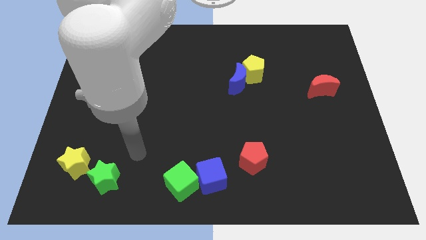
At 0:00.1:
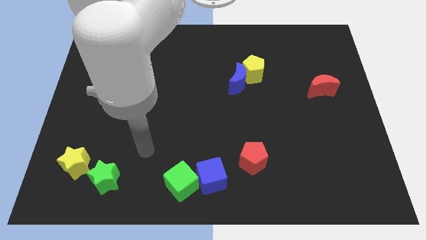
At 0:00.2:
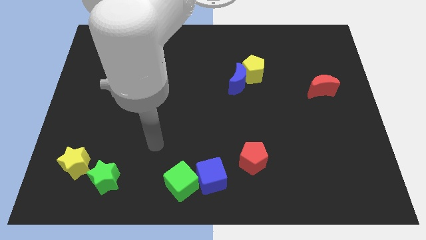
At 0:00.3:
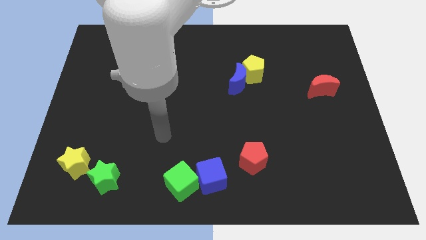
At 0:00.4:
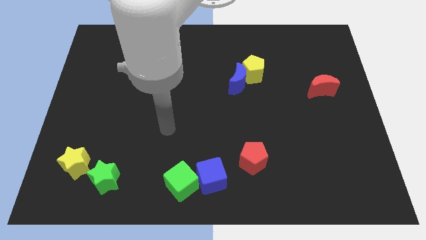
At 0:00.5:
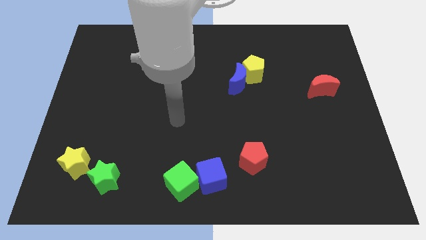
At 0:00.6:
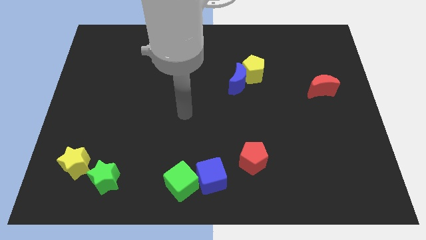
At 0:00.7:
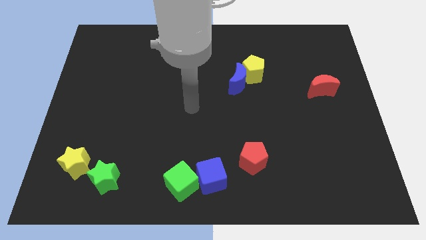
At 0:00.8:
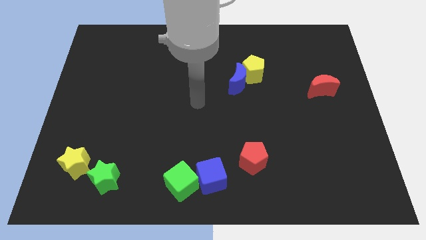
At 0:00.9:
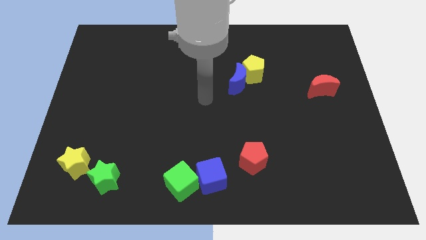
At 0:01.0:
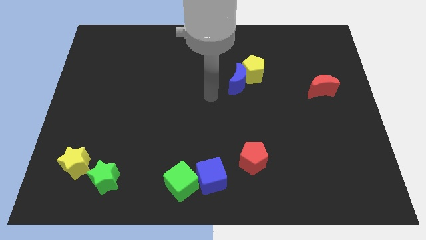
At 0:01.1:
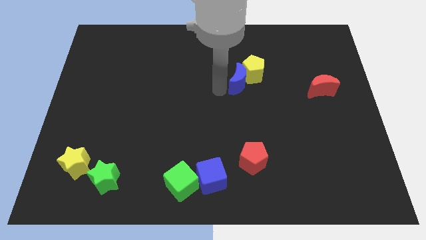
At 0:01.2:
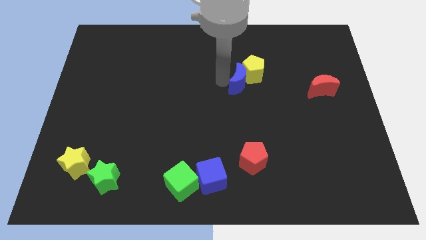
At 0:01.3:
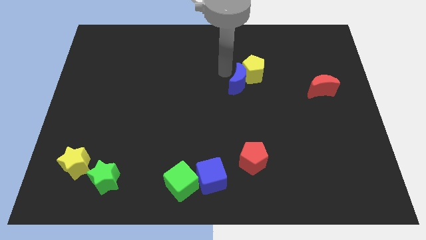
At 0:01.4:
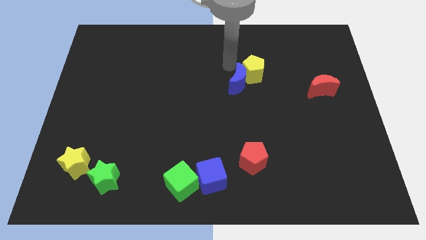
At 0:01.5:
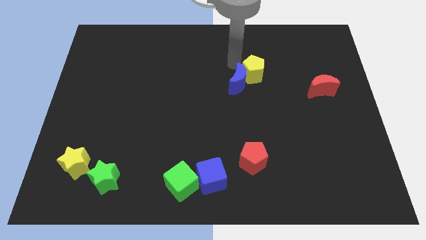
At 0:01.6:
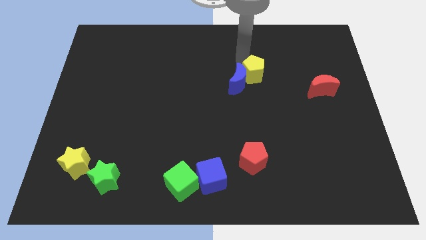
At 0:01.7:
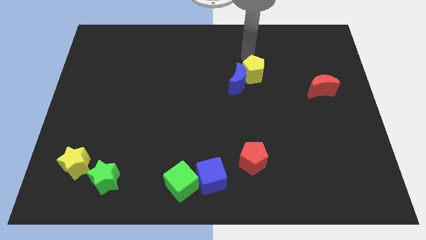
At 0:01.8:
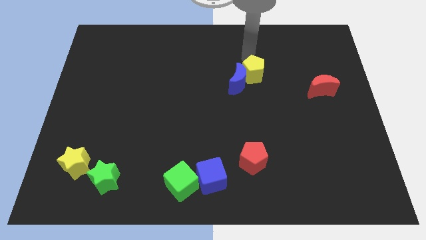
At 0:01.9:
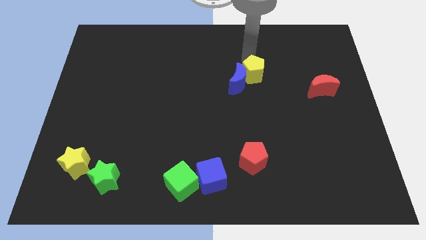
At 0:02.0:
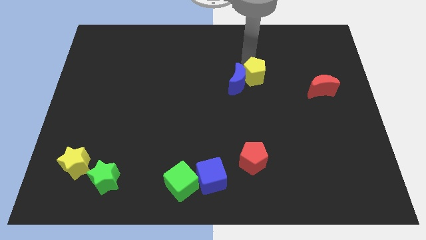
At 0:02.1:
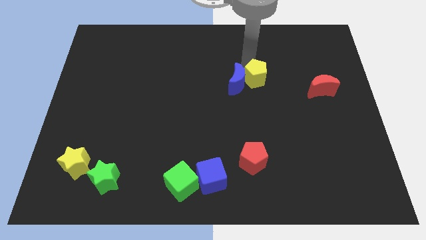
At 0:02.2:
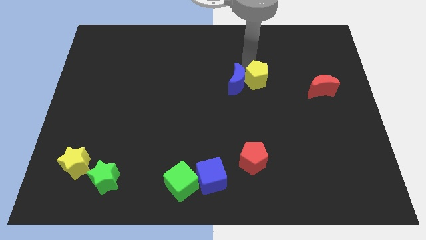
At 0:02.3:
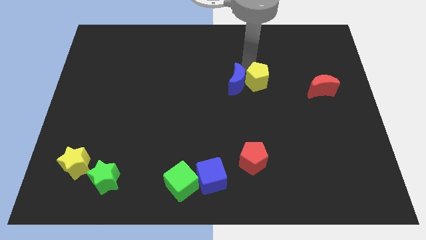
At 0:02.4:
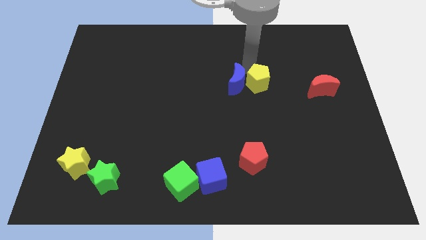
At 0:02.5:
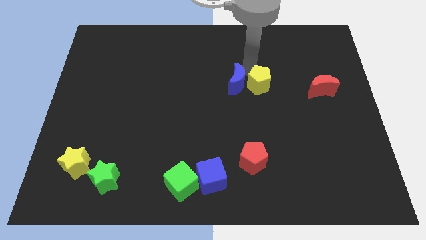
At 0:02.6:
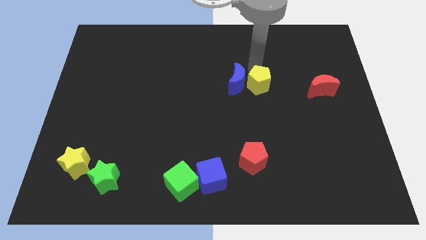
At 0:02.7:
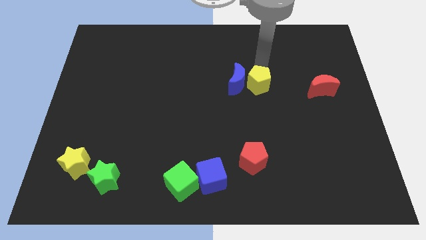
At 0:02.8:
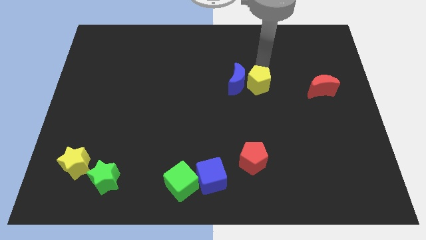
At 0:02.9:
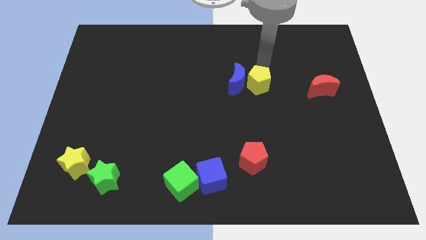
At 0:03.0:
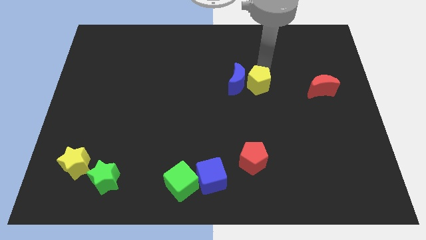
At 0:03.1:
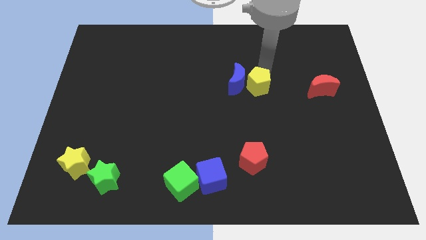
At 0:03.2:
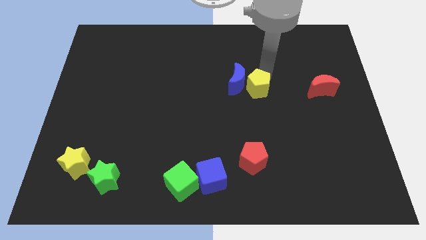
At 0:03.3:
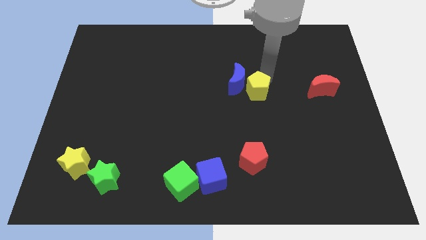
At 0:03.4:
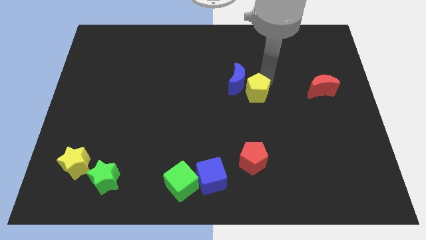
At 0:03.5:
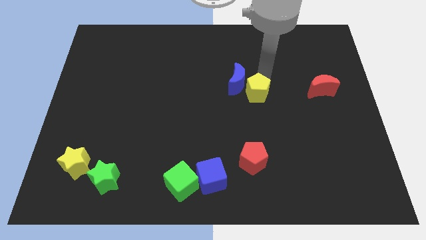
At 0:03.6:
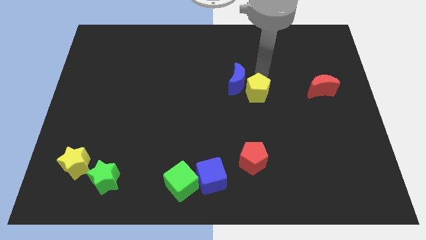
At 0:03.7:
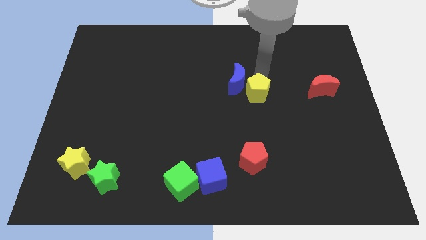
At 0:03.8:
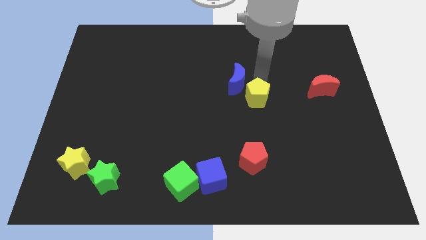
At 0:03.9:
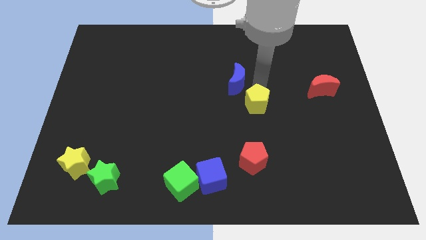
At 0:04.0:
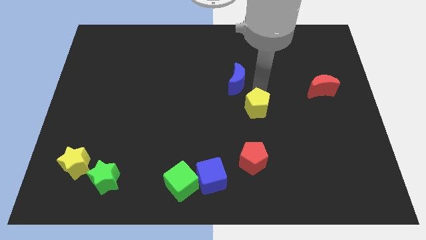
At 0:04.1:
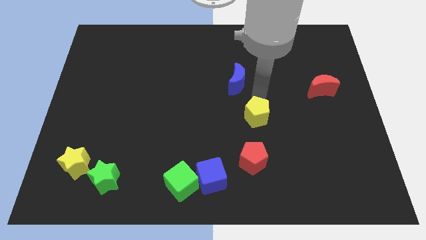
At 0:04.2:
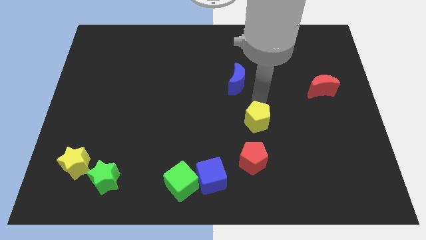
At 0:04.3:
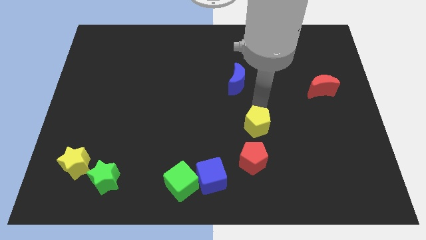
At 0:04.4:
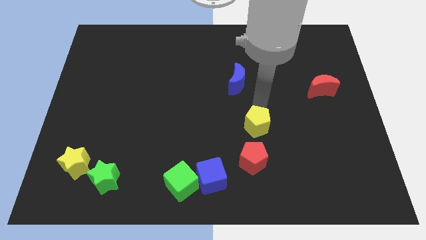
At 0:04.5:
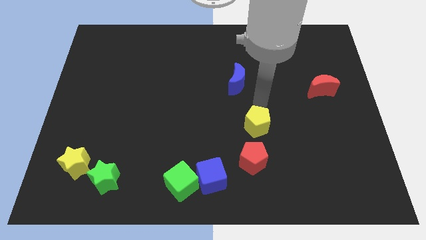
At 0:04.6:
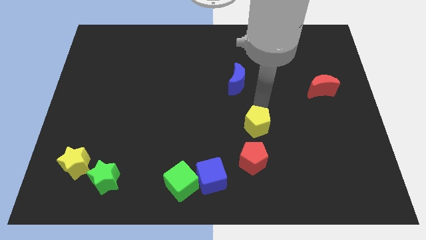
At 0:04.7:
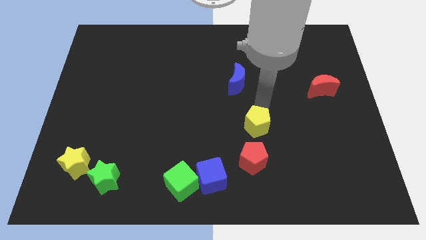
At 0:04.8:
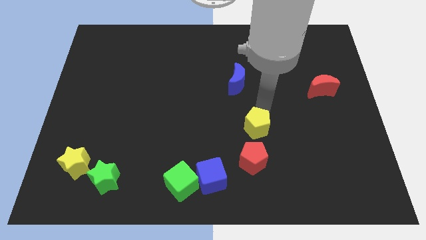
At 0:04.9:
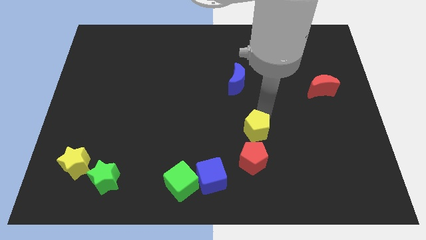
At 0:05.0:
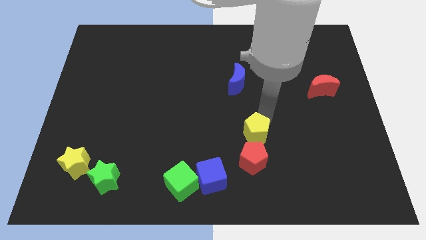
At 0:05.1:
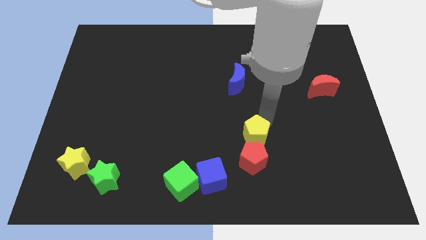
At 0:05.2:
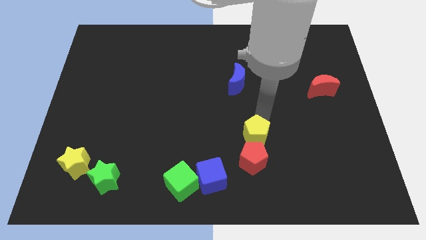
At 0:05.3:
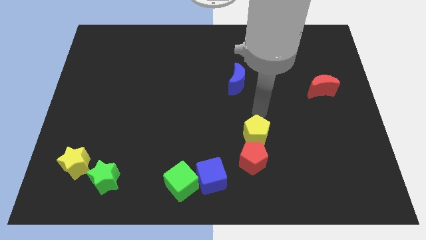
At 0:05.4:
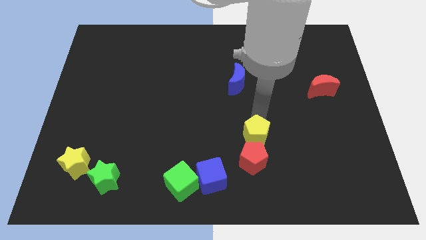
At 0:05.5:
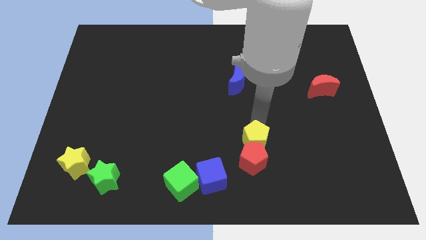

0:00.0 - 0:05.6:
push the yellow pentagon close to the red pentagon

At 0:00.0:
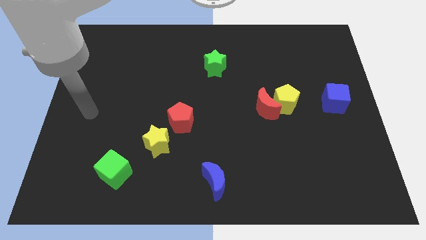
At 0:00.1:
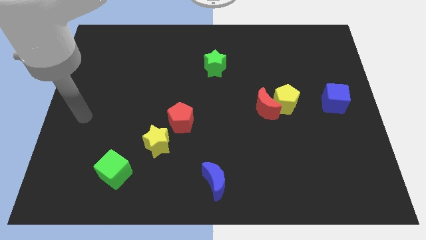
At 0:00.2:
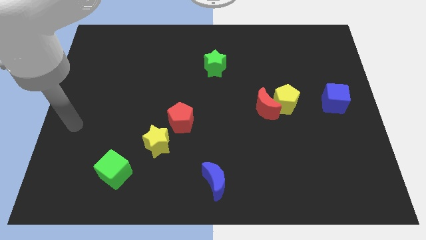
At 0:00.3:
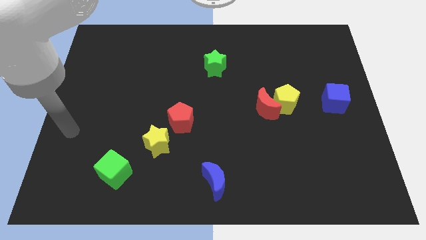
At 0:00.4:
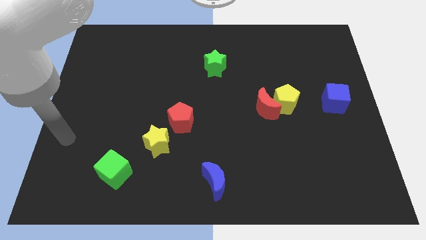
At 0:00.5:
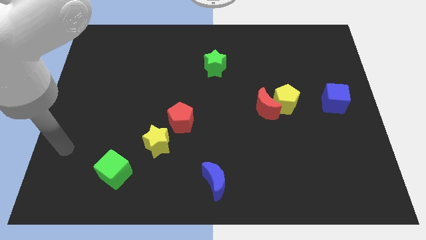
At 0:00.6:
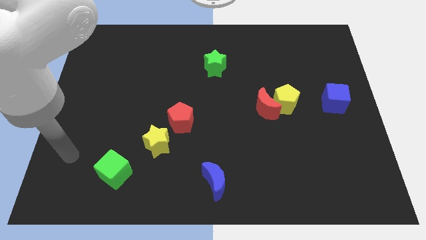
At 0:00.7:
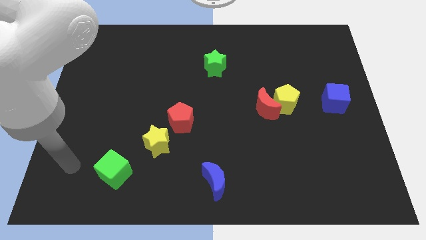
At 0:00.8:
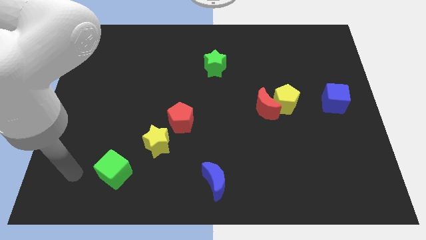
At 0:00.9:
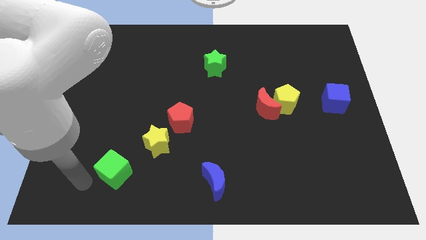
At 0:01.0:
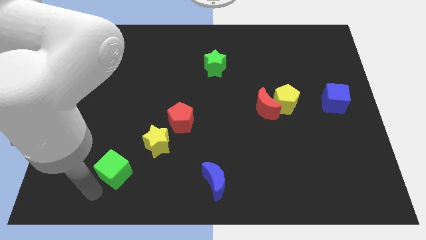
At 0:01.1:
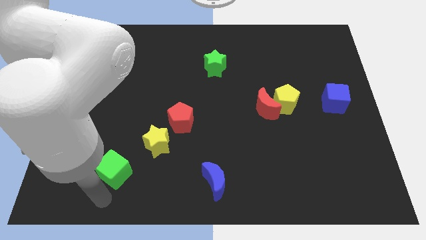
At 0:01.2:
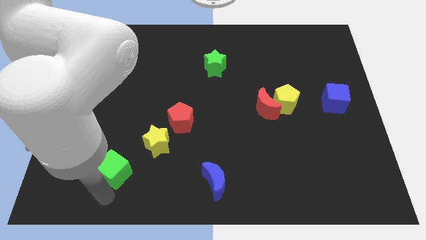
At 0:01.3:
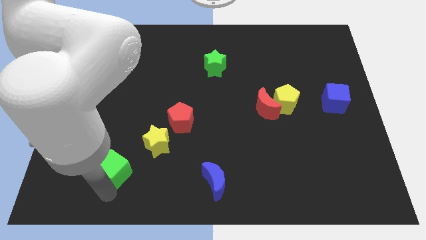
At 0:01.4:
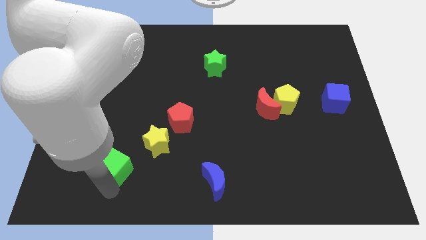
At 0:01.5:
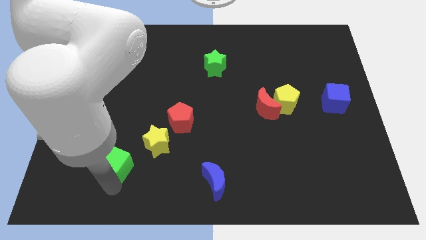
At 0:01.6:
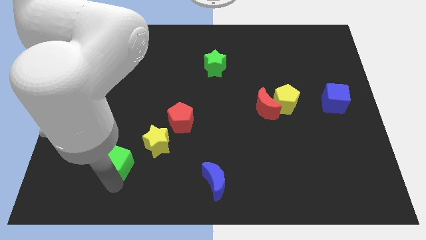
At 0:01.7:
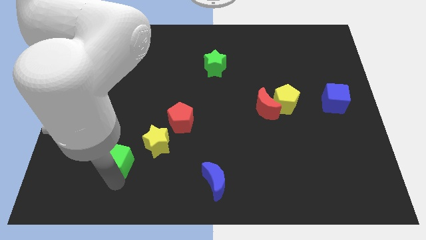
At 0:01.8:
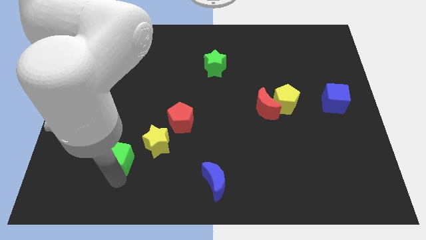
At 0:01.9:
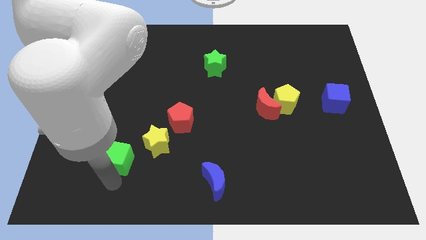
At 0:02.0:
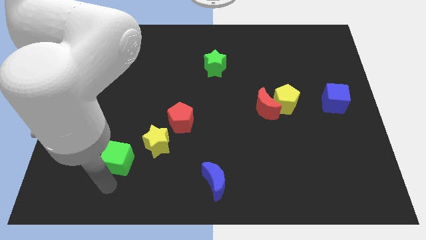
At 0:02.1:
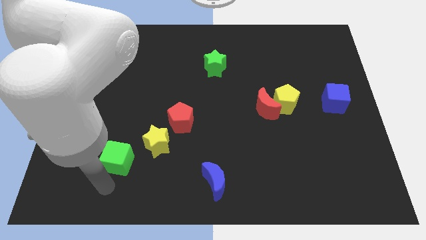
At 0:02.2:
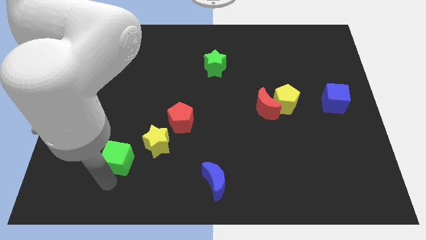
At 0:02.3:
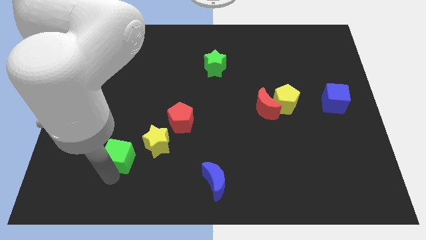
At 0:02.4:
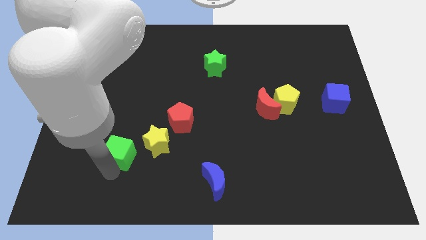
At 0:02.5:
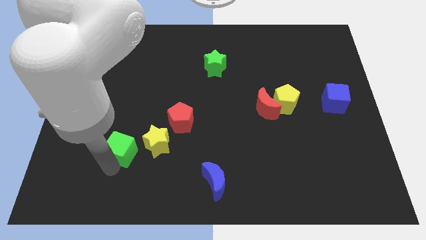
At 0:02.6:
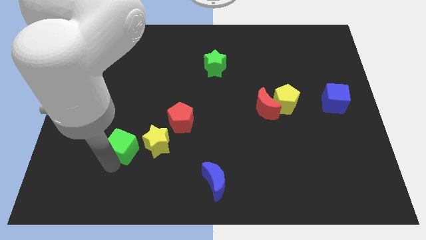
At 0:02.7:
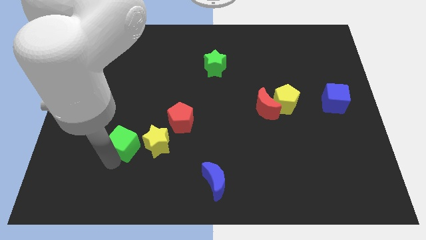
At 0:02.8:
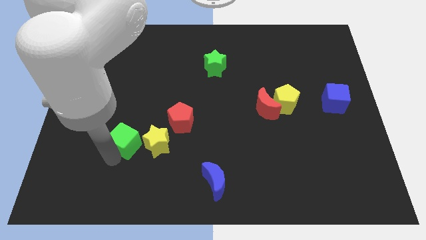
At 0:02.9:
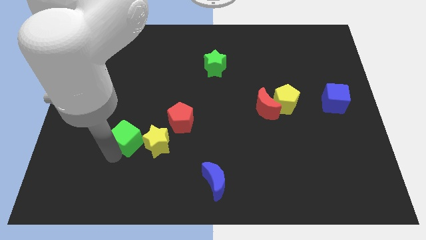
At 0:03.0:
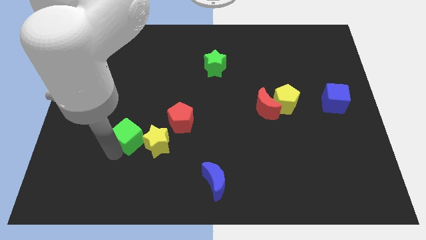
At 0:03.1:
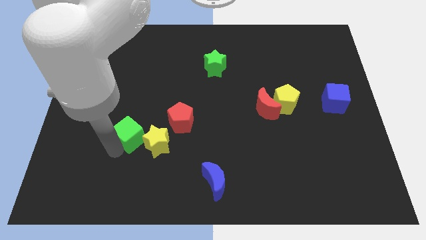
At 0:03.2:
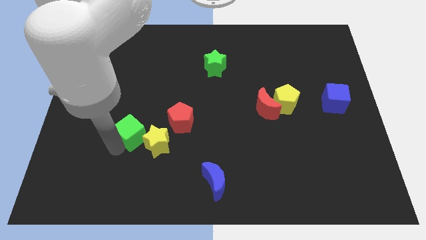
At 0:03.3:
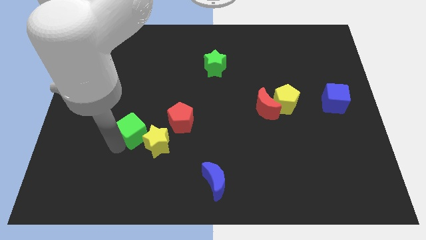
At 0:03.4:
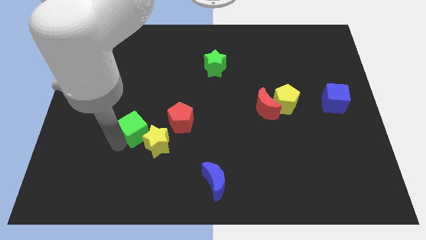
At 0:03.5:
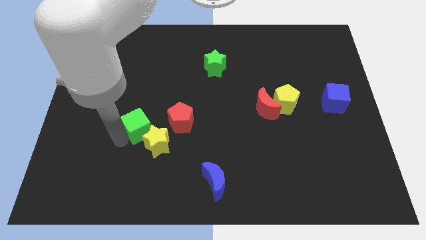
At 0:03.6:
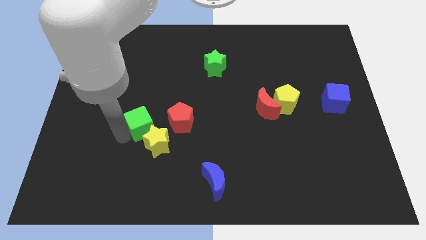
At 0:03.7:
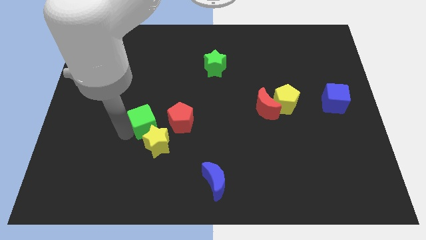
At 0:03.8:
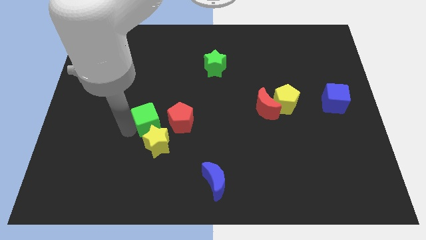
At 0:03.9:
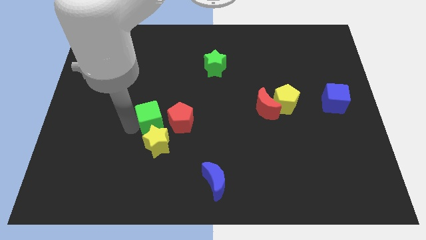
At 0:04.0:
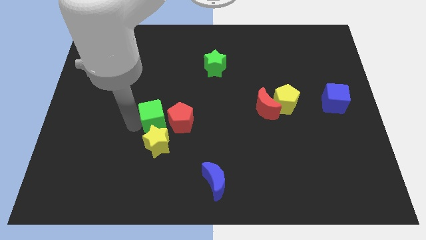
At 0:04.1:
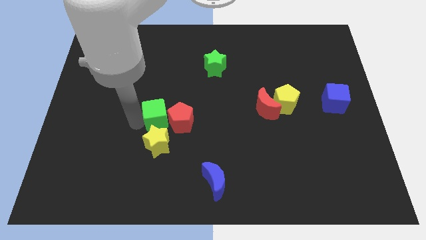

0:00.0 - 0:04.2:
slide the green cube close to the red pentagon
